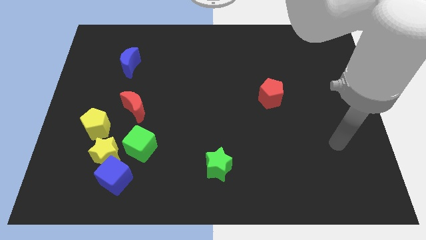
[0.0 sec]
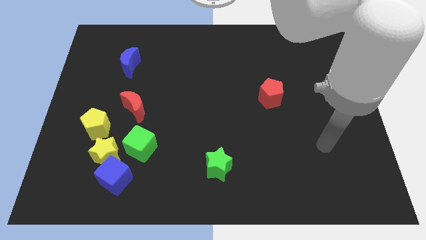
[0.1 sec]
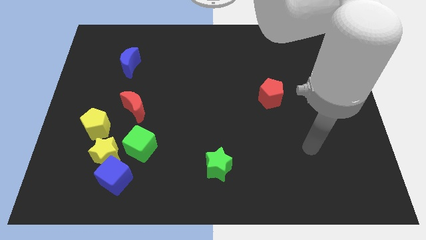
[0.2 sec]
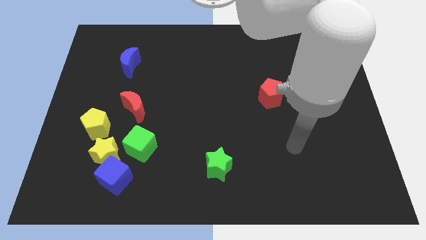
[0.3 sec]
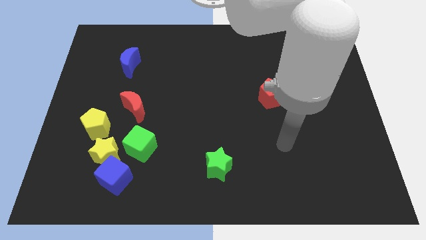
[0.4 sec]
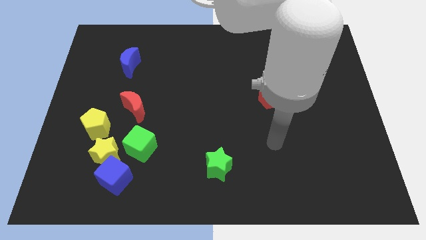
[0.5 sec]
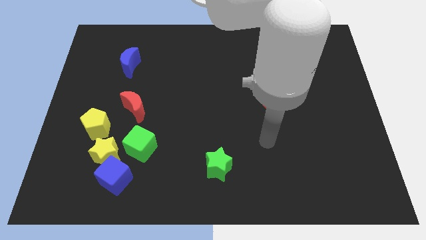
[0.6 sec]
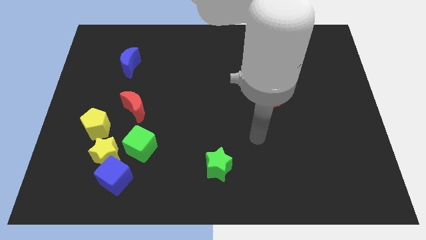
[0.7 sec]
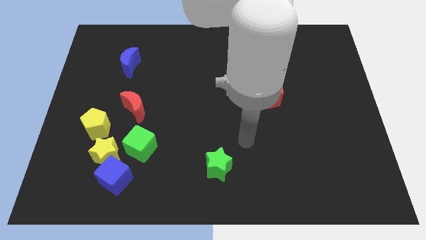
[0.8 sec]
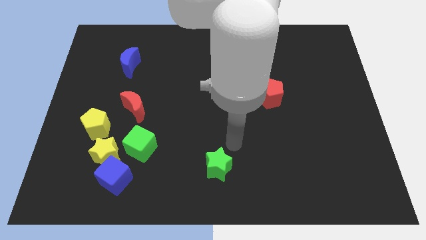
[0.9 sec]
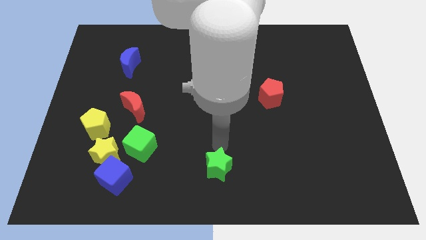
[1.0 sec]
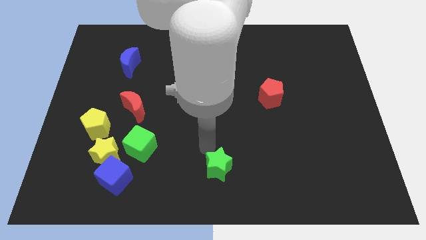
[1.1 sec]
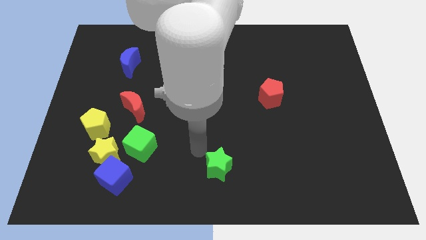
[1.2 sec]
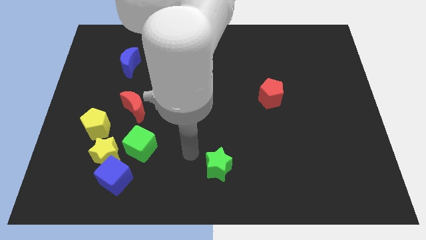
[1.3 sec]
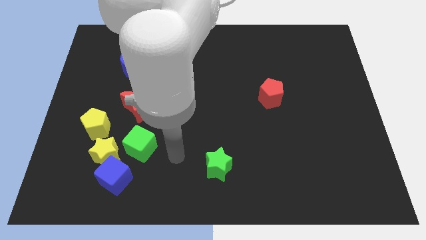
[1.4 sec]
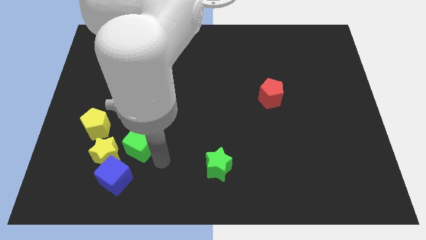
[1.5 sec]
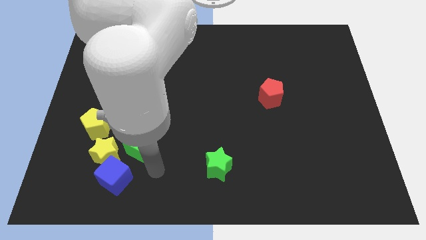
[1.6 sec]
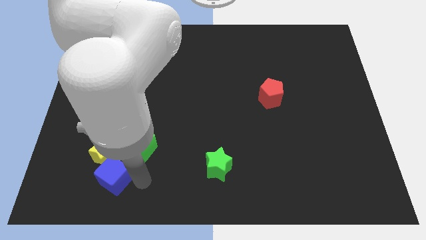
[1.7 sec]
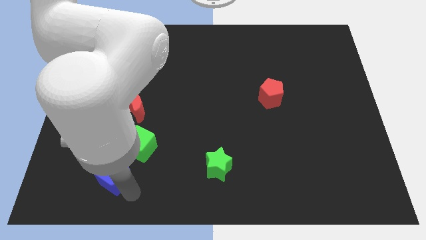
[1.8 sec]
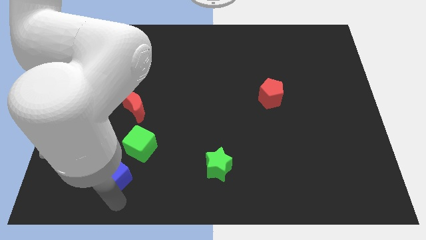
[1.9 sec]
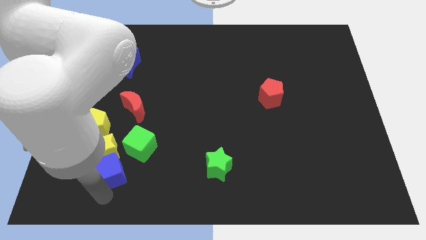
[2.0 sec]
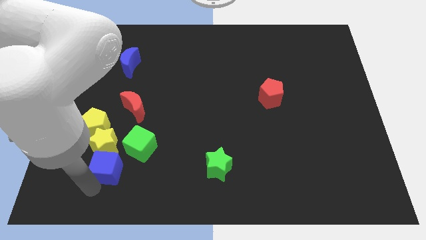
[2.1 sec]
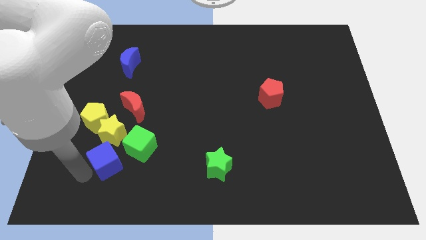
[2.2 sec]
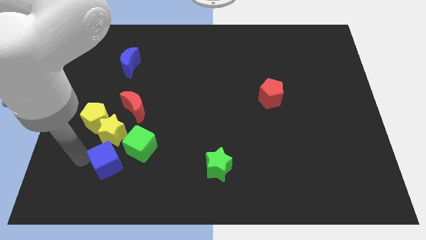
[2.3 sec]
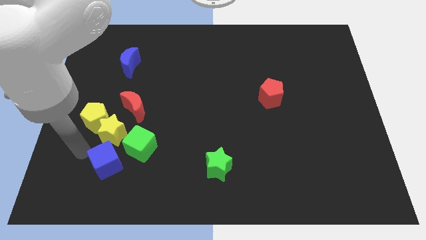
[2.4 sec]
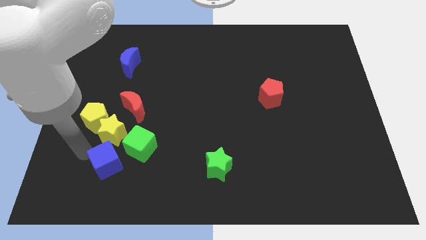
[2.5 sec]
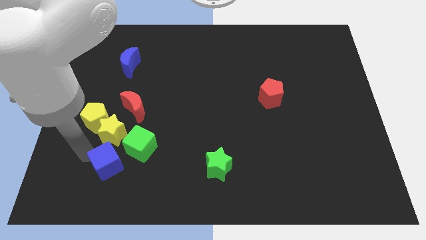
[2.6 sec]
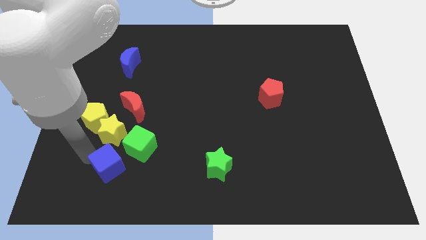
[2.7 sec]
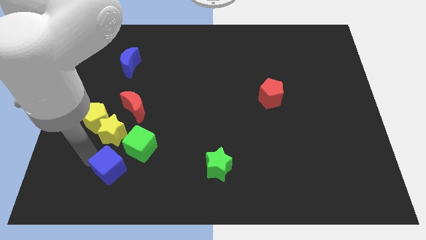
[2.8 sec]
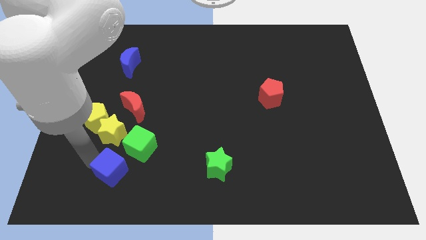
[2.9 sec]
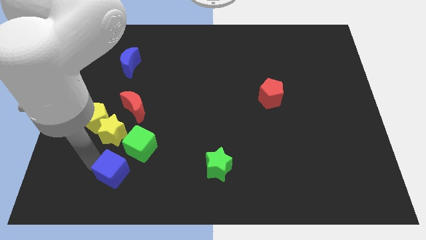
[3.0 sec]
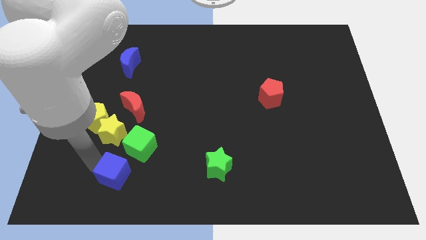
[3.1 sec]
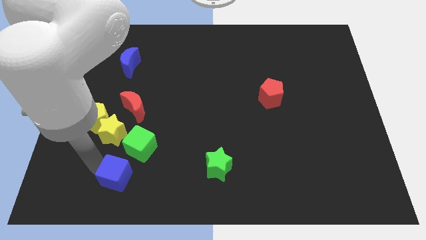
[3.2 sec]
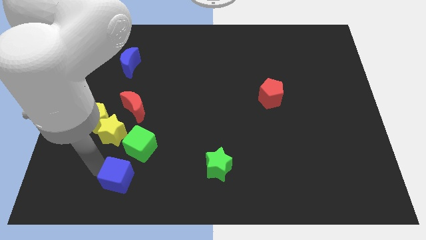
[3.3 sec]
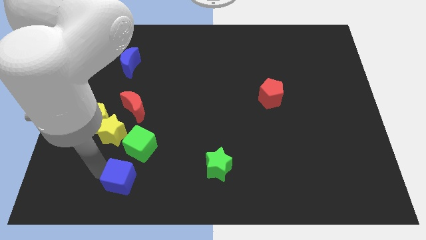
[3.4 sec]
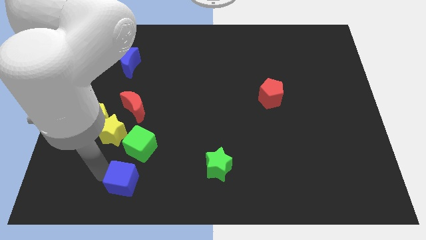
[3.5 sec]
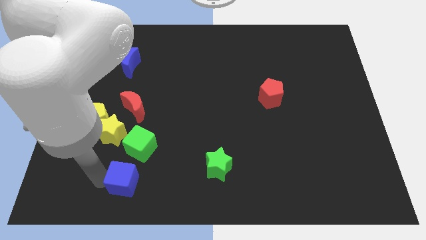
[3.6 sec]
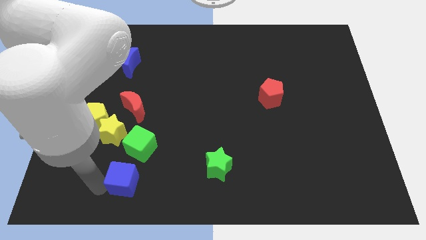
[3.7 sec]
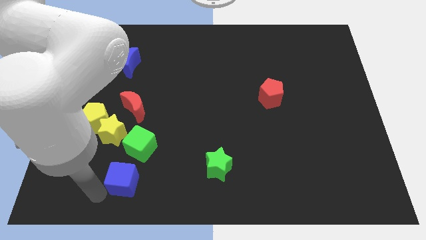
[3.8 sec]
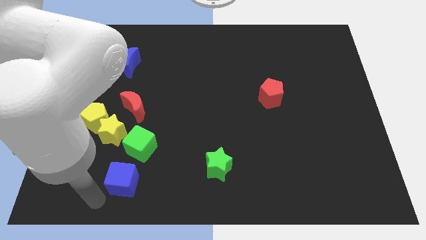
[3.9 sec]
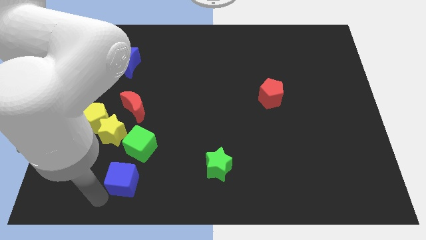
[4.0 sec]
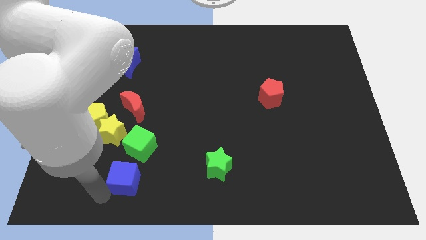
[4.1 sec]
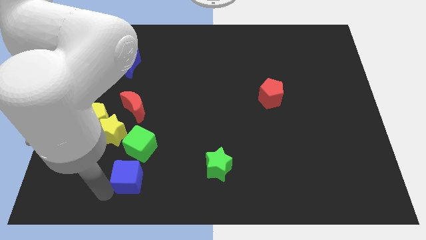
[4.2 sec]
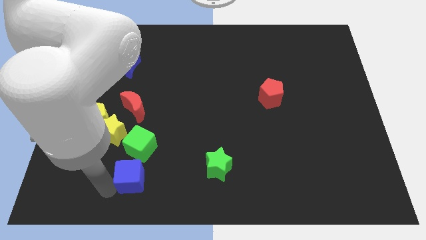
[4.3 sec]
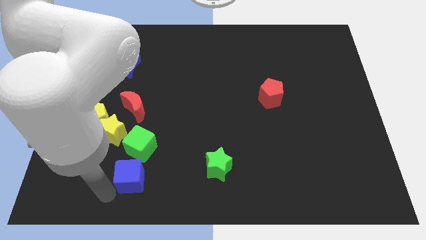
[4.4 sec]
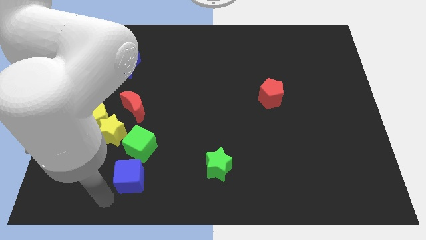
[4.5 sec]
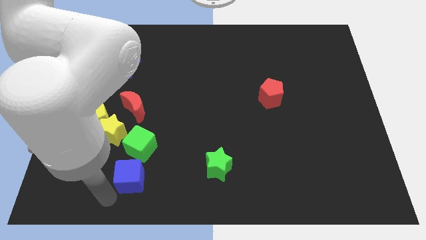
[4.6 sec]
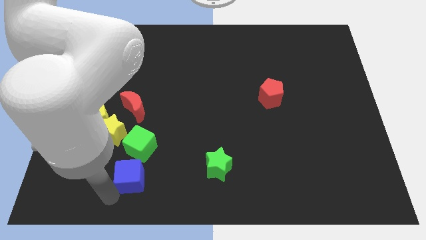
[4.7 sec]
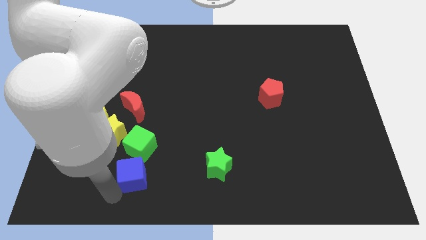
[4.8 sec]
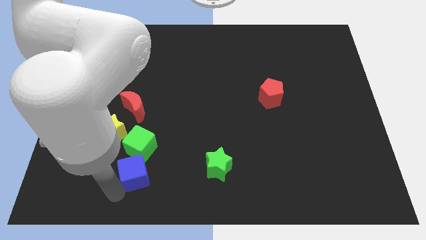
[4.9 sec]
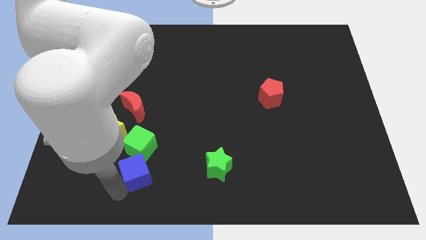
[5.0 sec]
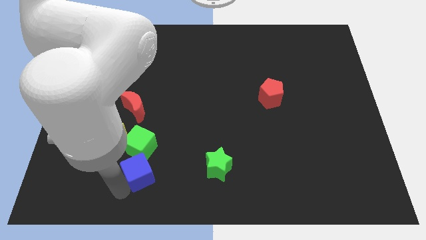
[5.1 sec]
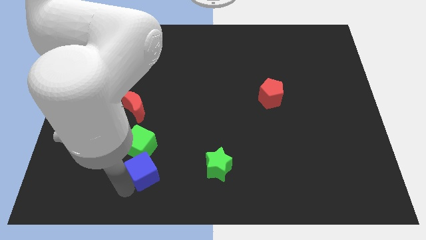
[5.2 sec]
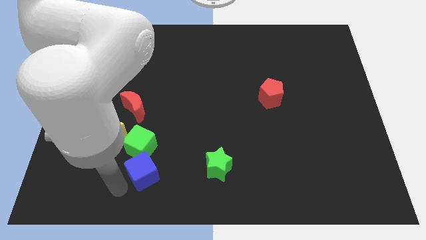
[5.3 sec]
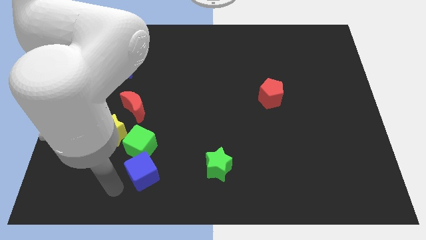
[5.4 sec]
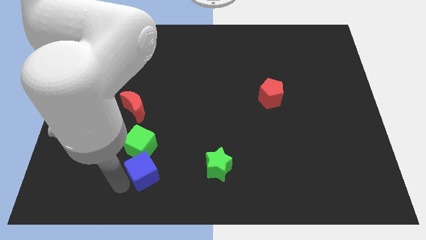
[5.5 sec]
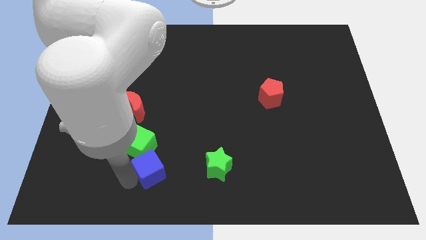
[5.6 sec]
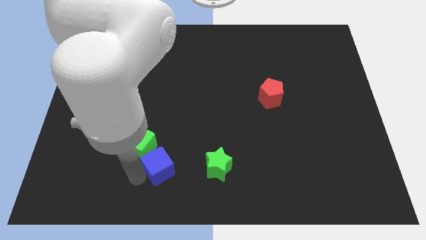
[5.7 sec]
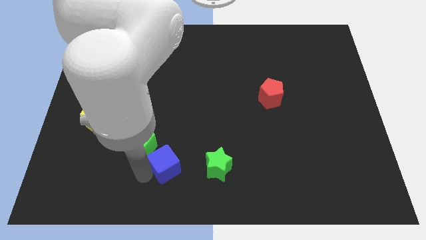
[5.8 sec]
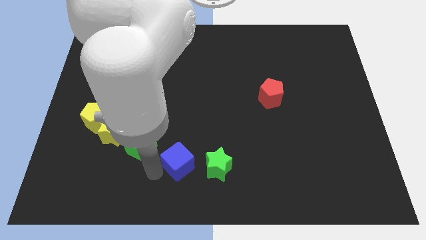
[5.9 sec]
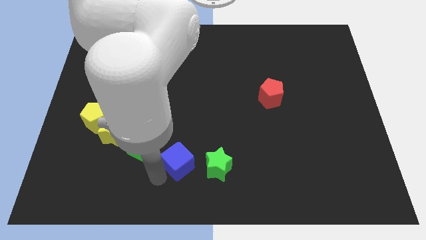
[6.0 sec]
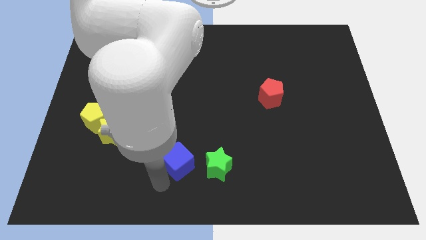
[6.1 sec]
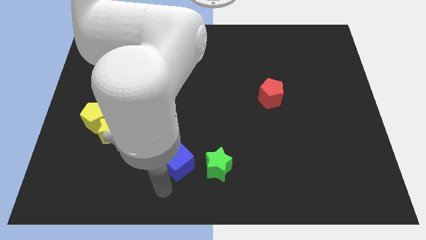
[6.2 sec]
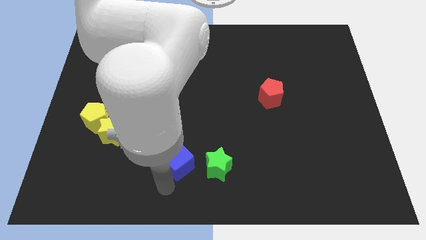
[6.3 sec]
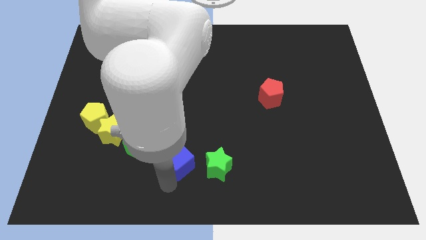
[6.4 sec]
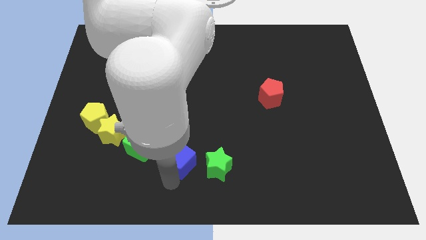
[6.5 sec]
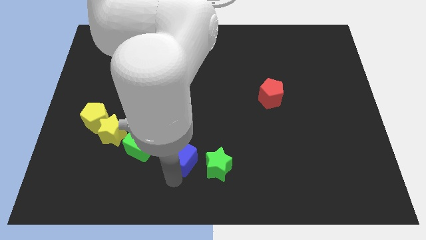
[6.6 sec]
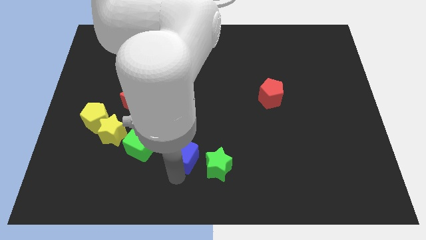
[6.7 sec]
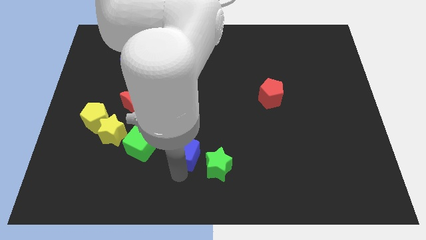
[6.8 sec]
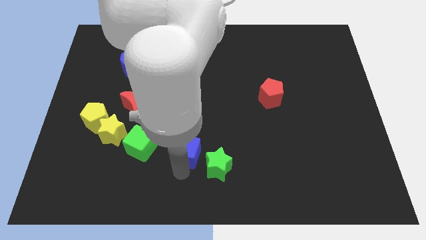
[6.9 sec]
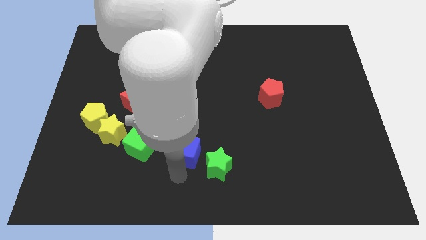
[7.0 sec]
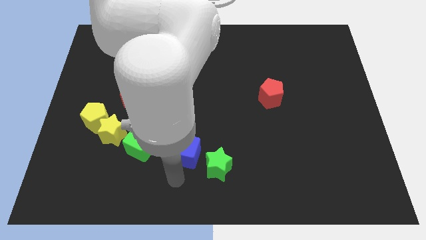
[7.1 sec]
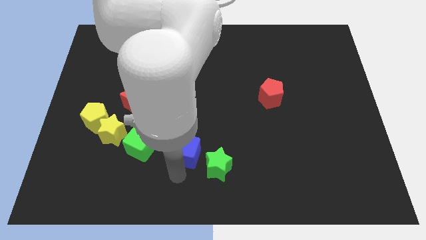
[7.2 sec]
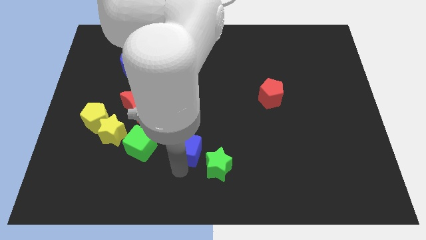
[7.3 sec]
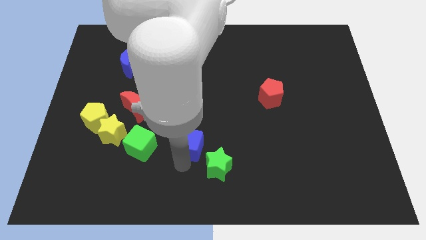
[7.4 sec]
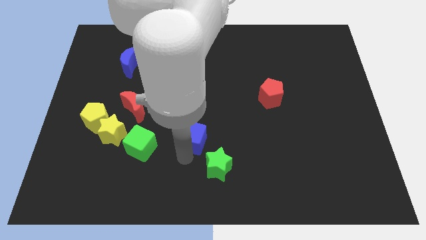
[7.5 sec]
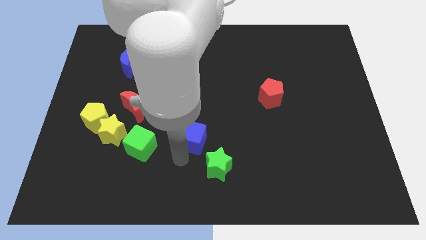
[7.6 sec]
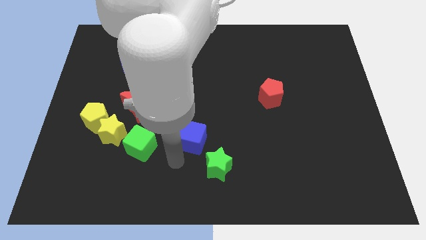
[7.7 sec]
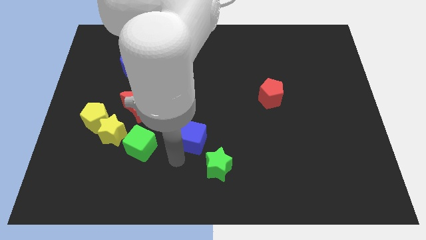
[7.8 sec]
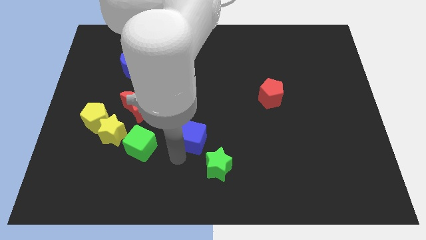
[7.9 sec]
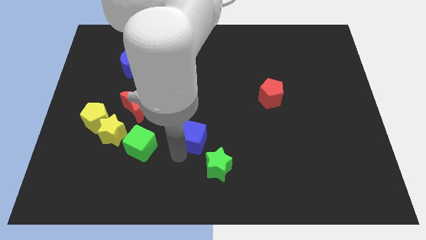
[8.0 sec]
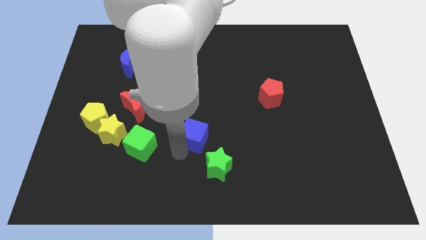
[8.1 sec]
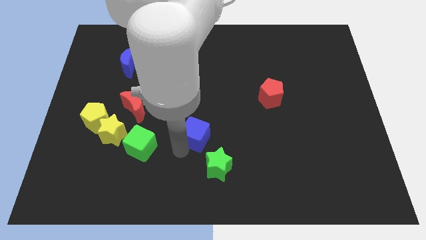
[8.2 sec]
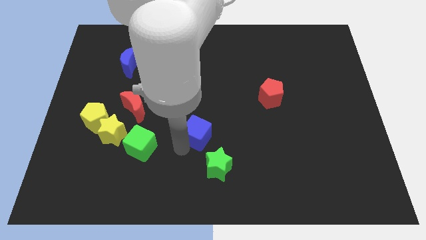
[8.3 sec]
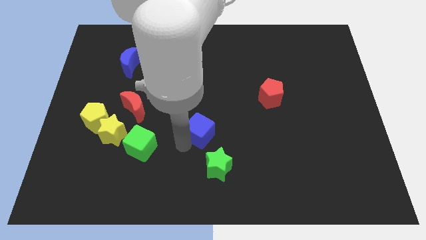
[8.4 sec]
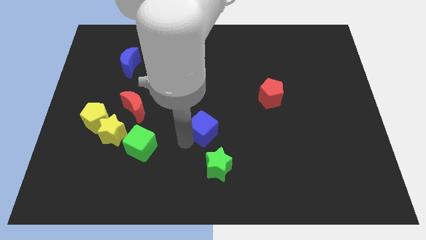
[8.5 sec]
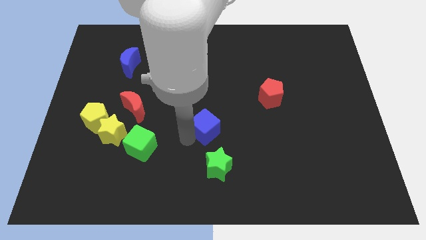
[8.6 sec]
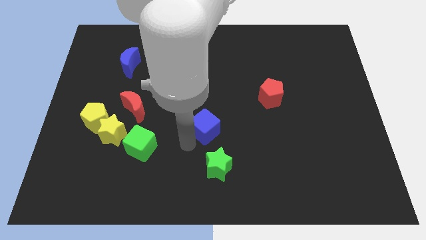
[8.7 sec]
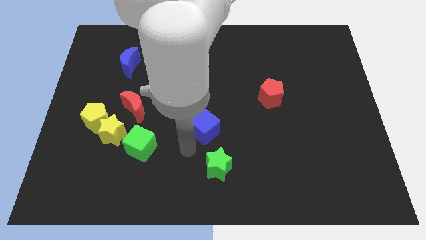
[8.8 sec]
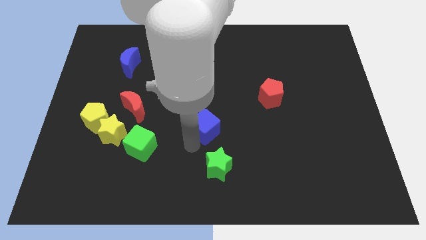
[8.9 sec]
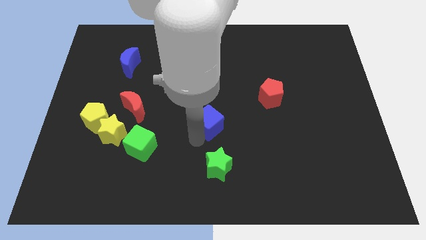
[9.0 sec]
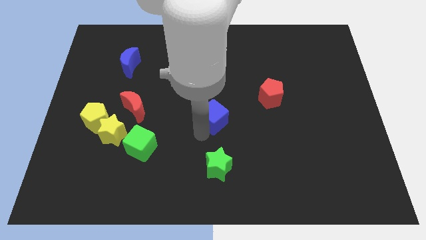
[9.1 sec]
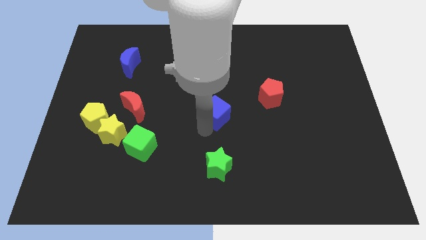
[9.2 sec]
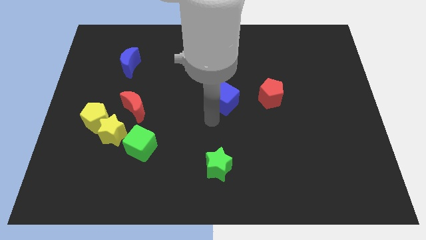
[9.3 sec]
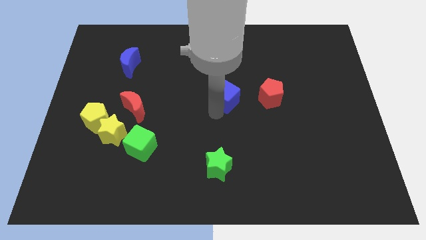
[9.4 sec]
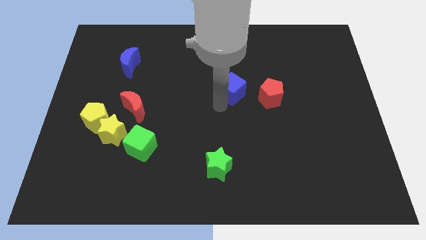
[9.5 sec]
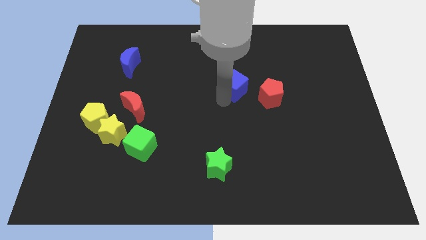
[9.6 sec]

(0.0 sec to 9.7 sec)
put the blue cube to the top left side of the red pentagon
